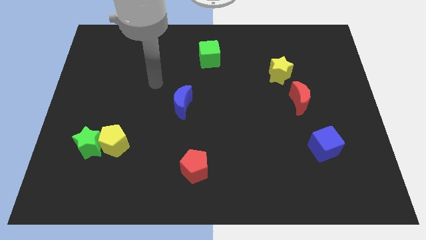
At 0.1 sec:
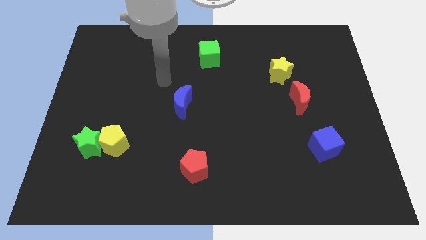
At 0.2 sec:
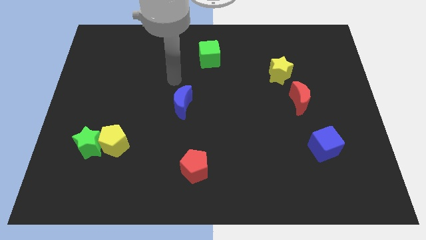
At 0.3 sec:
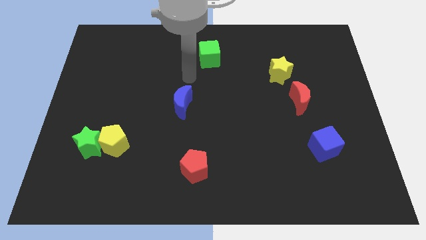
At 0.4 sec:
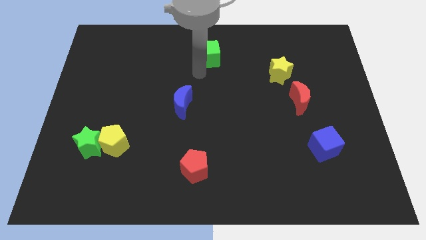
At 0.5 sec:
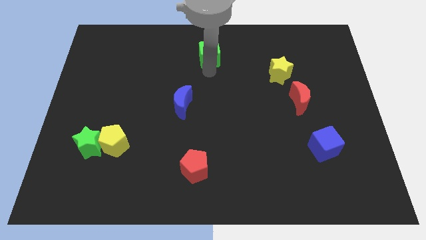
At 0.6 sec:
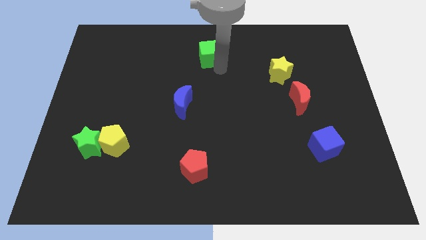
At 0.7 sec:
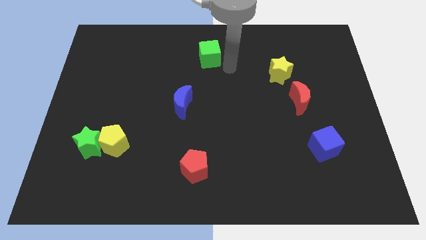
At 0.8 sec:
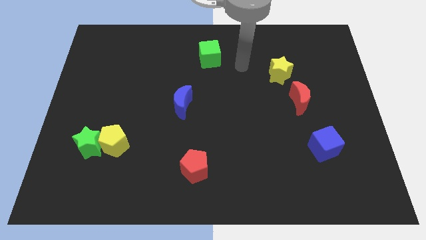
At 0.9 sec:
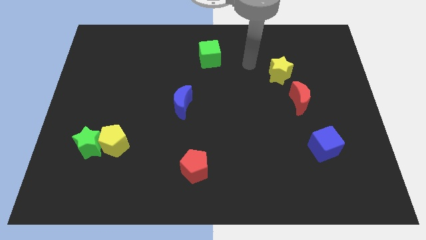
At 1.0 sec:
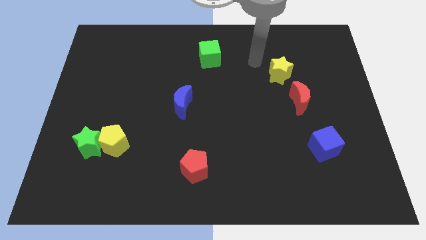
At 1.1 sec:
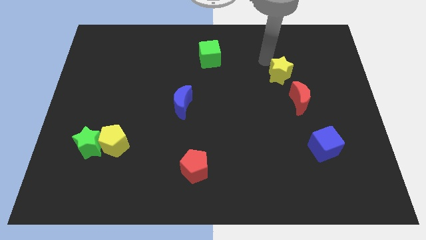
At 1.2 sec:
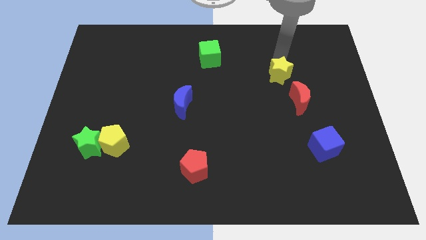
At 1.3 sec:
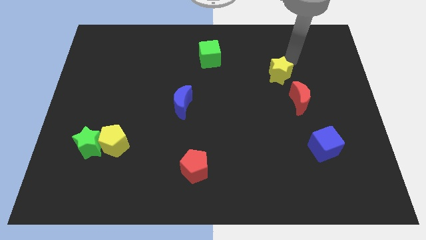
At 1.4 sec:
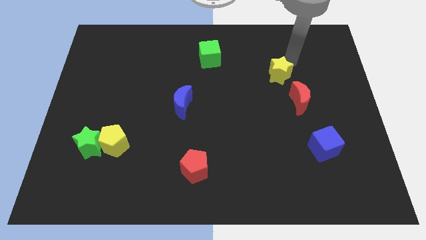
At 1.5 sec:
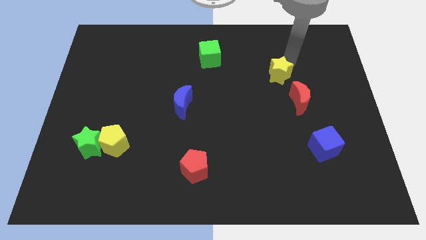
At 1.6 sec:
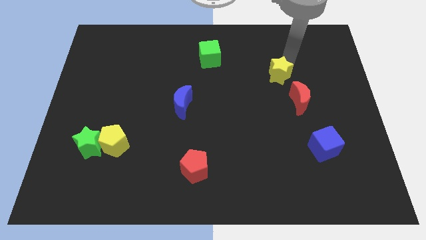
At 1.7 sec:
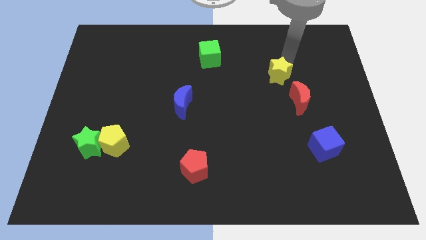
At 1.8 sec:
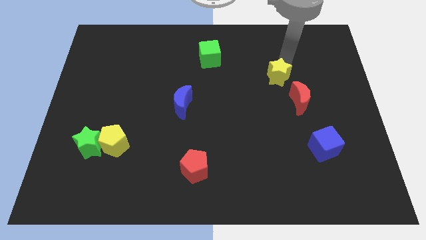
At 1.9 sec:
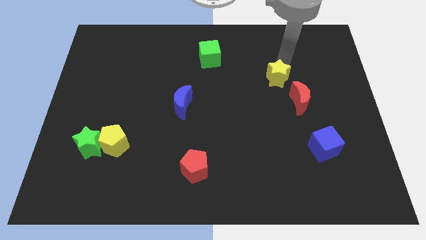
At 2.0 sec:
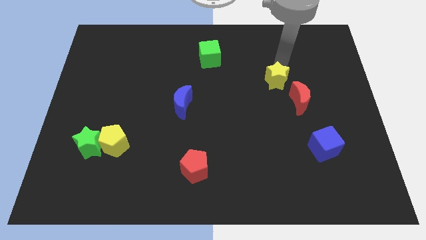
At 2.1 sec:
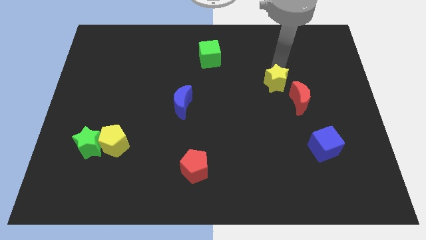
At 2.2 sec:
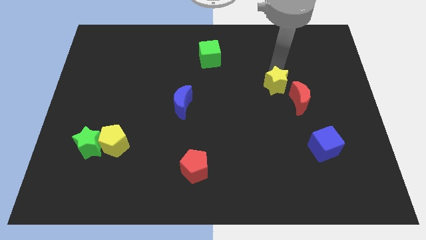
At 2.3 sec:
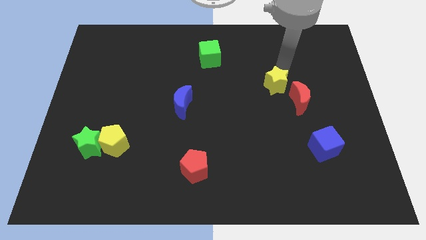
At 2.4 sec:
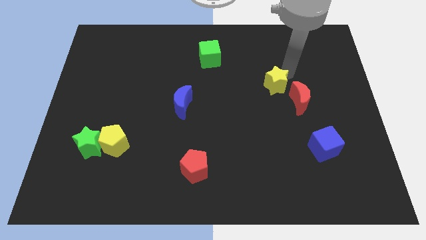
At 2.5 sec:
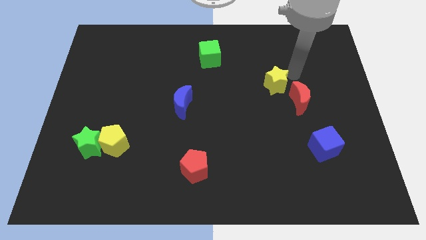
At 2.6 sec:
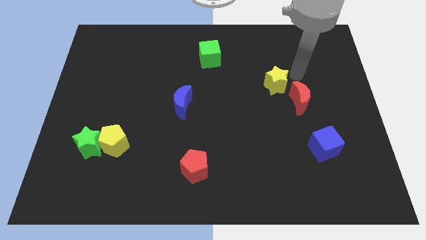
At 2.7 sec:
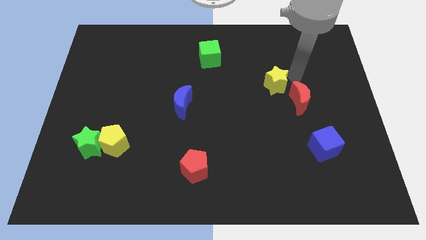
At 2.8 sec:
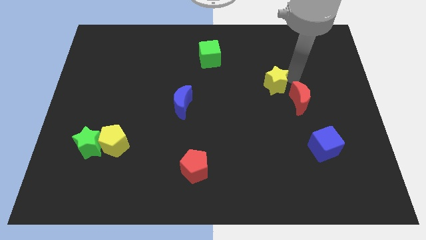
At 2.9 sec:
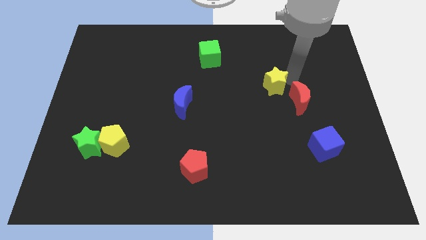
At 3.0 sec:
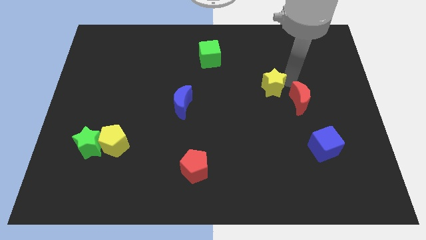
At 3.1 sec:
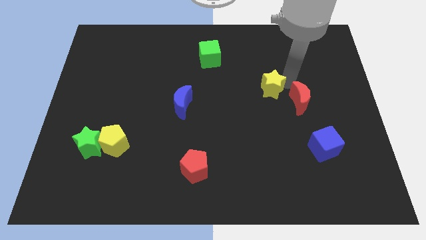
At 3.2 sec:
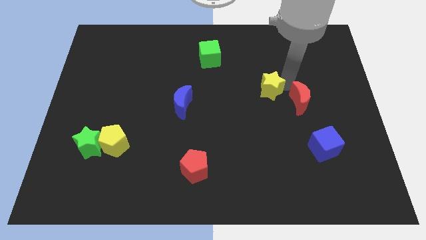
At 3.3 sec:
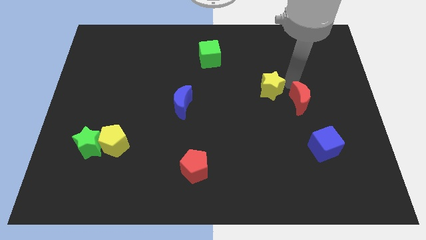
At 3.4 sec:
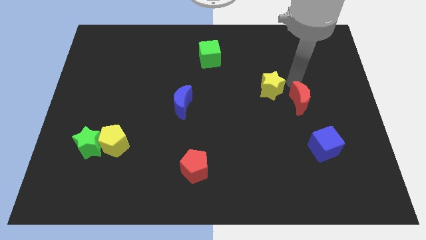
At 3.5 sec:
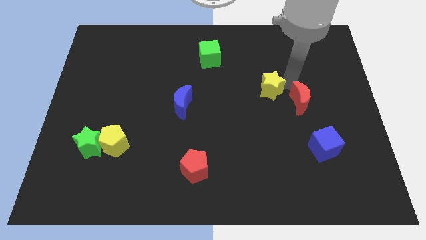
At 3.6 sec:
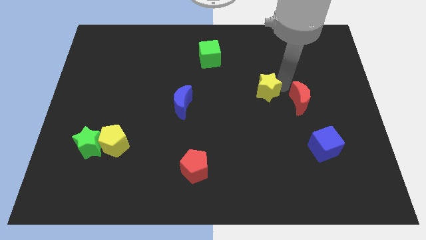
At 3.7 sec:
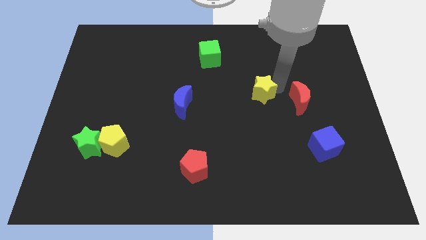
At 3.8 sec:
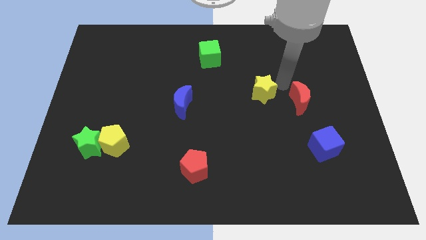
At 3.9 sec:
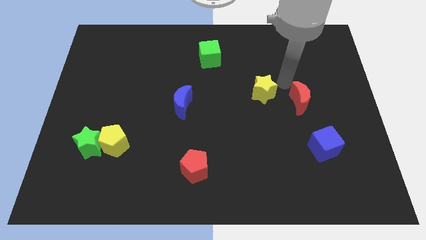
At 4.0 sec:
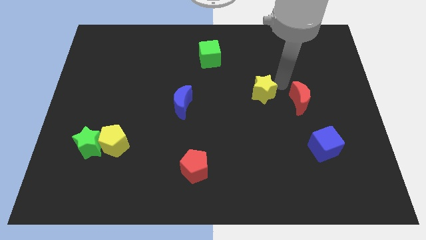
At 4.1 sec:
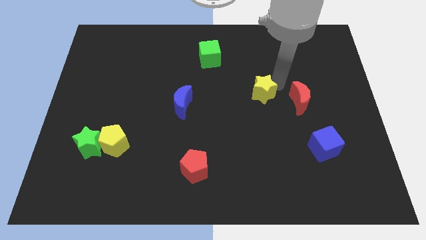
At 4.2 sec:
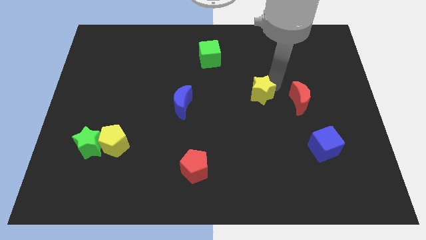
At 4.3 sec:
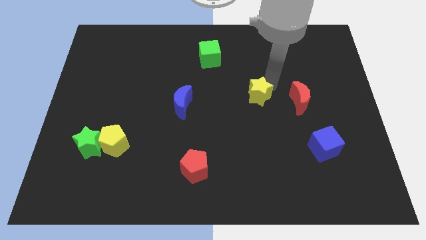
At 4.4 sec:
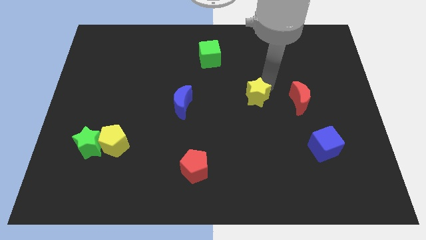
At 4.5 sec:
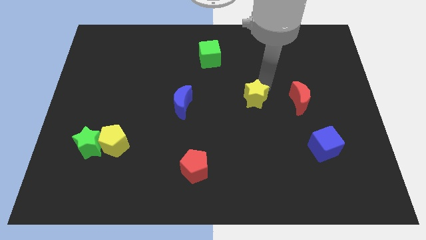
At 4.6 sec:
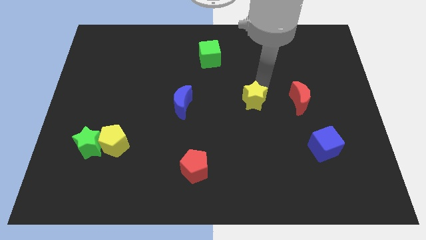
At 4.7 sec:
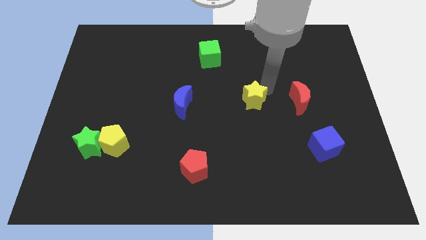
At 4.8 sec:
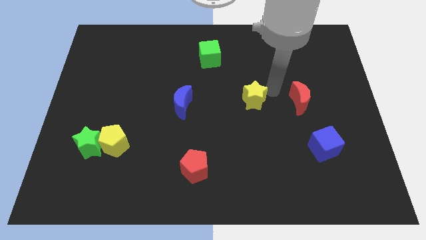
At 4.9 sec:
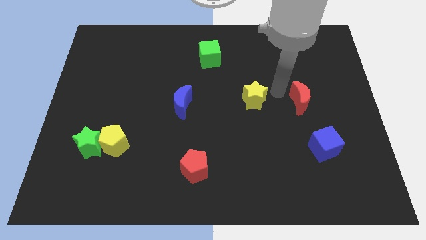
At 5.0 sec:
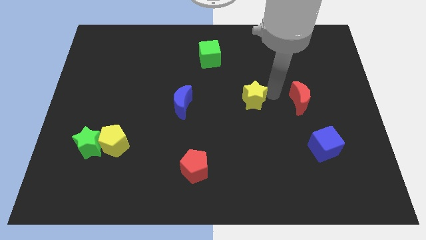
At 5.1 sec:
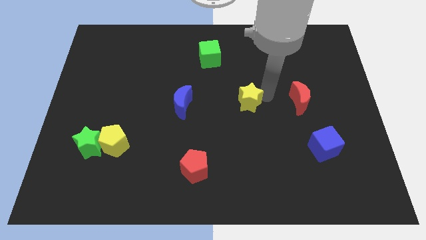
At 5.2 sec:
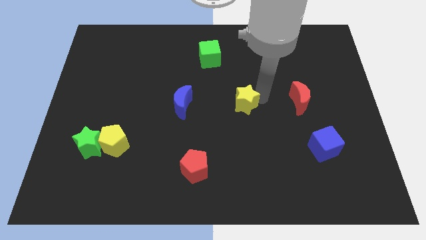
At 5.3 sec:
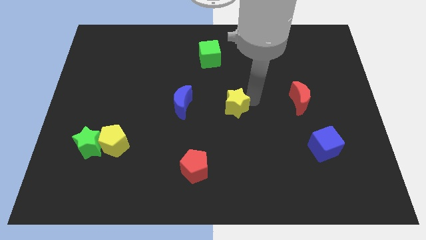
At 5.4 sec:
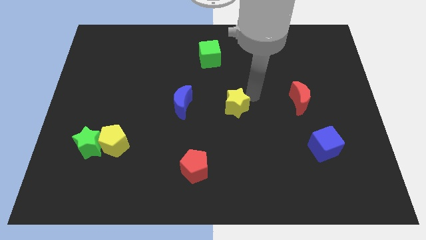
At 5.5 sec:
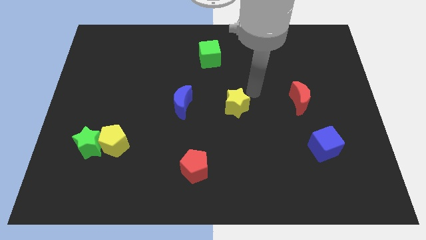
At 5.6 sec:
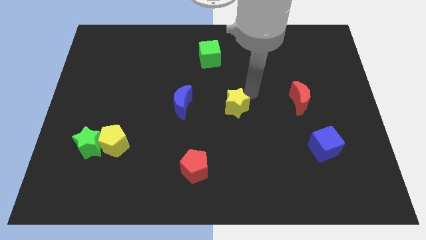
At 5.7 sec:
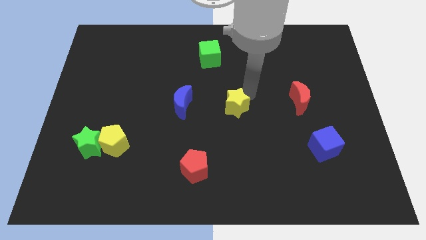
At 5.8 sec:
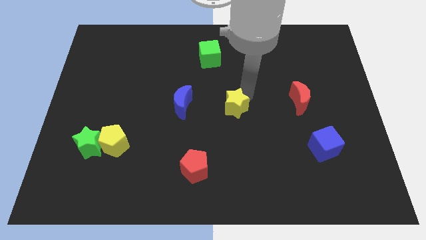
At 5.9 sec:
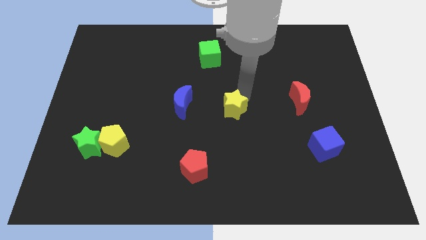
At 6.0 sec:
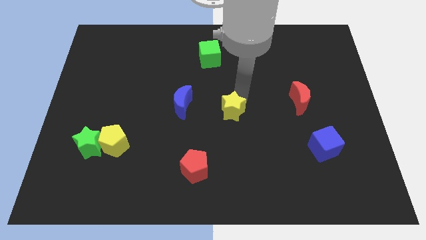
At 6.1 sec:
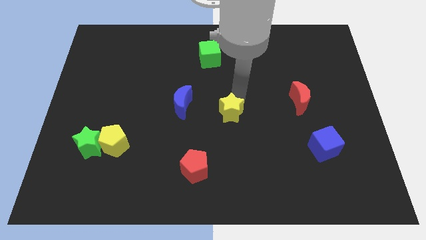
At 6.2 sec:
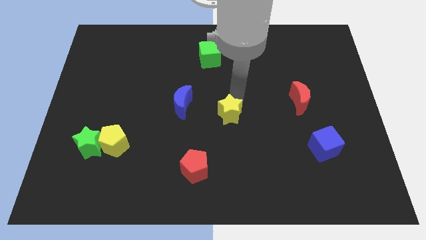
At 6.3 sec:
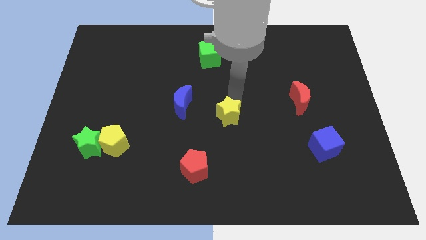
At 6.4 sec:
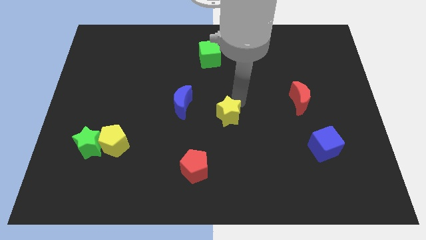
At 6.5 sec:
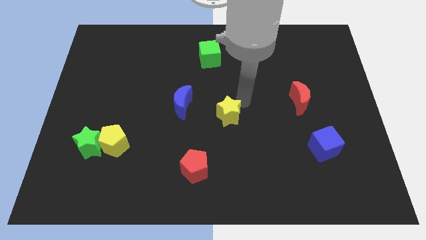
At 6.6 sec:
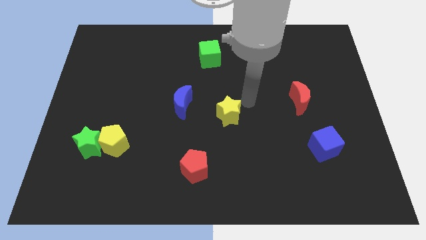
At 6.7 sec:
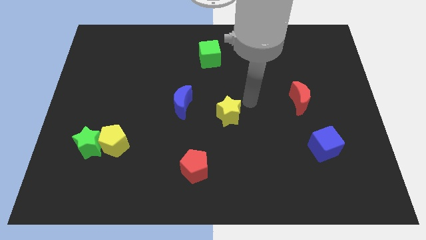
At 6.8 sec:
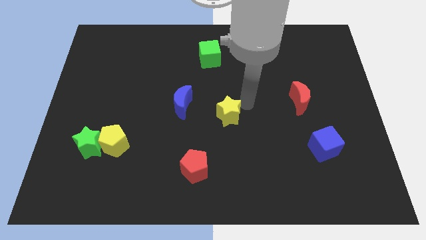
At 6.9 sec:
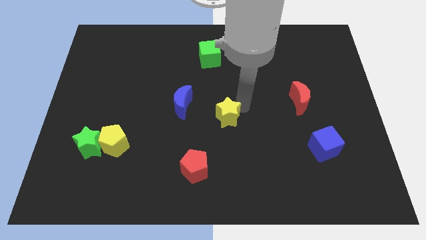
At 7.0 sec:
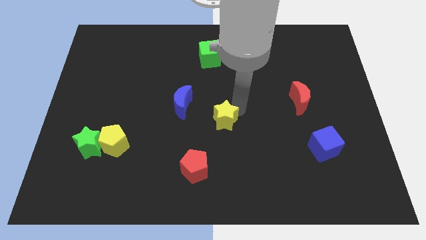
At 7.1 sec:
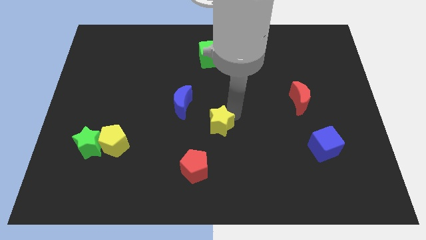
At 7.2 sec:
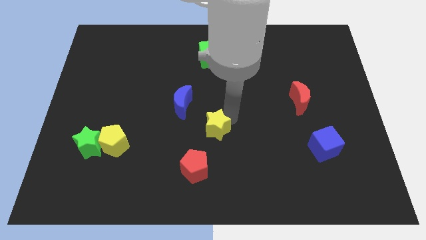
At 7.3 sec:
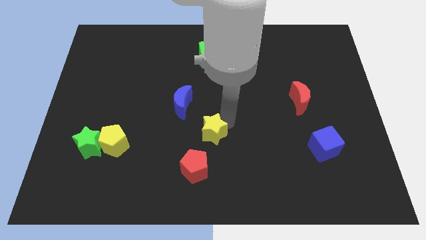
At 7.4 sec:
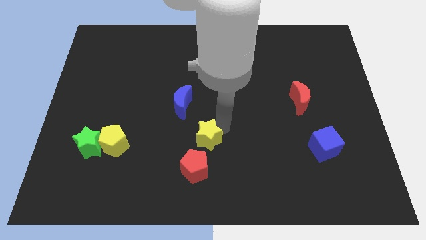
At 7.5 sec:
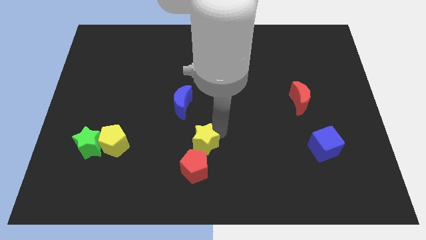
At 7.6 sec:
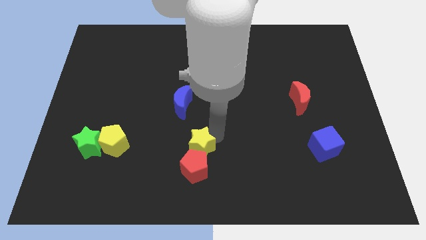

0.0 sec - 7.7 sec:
put the yellow star to the top left side of the red pentagon
